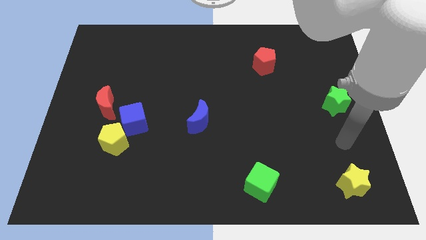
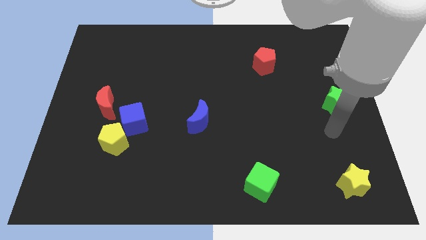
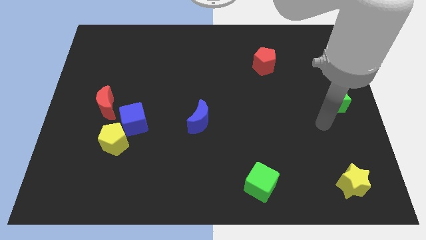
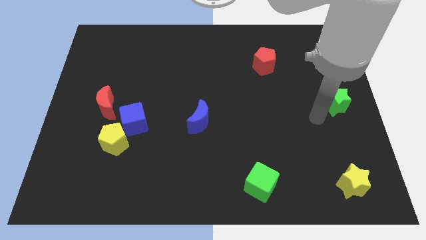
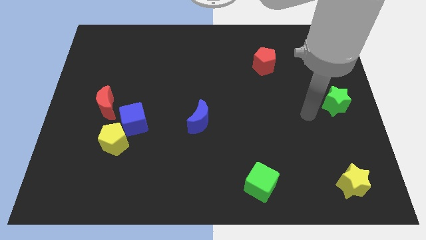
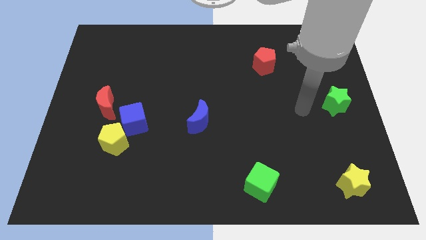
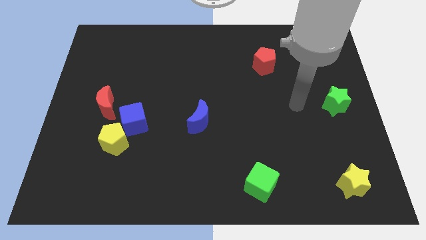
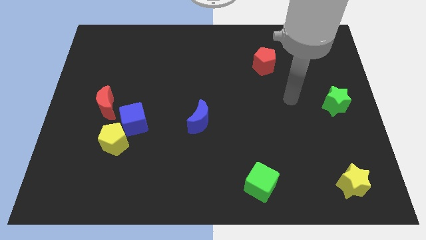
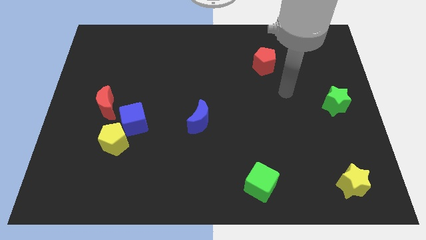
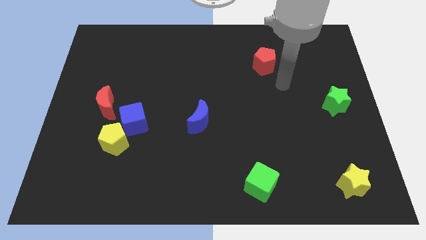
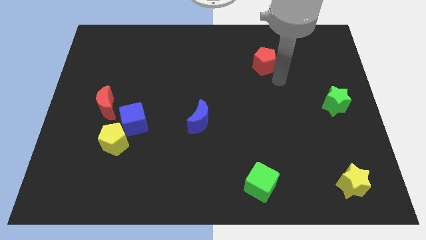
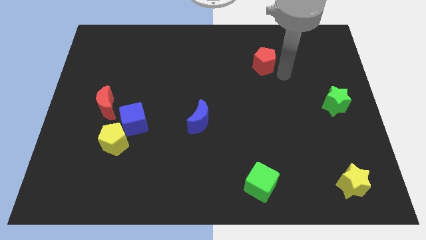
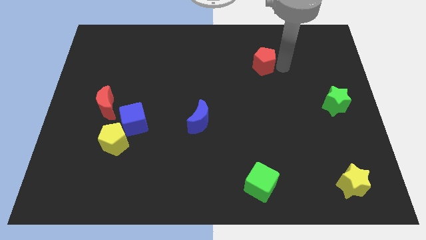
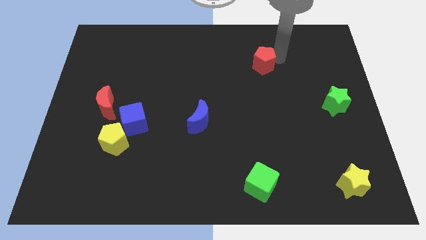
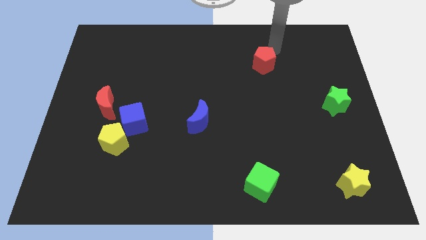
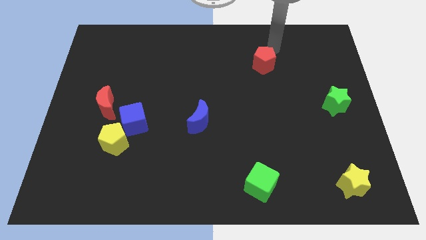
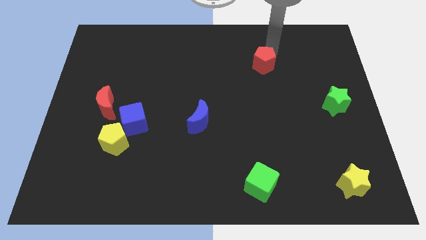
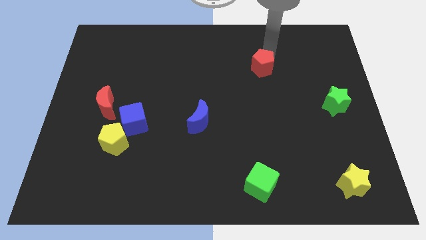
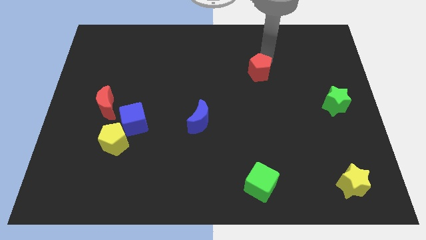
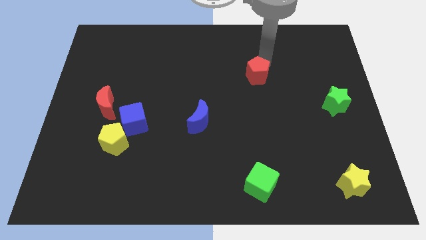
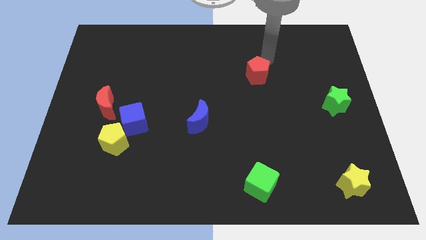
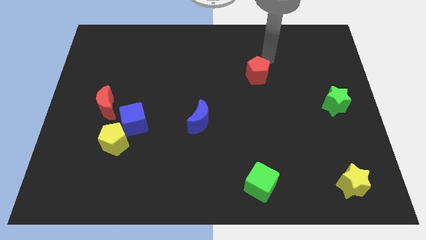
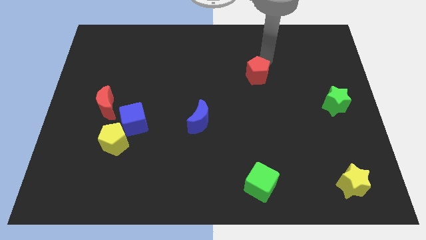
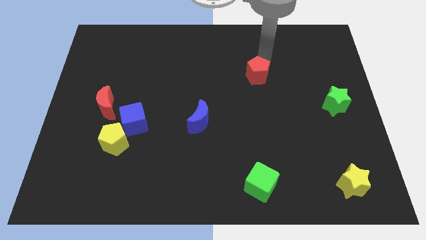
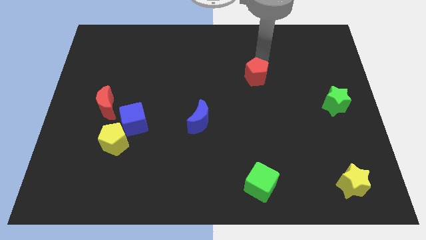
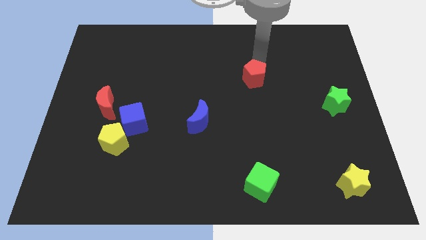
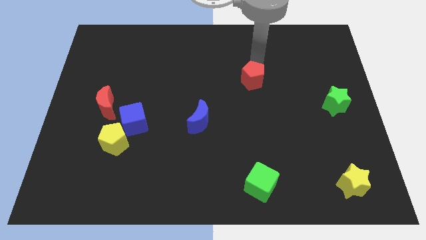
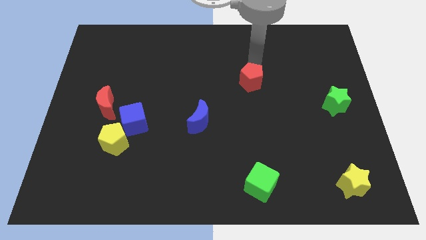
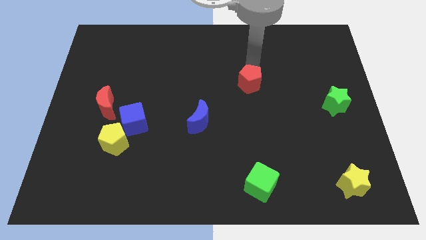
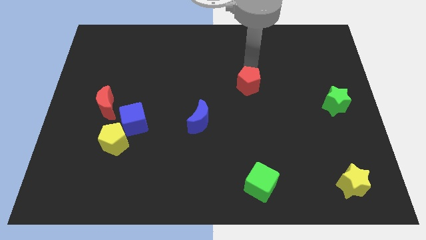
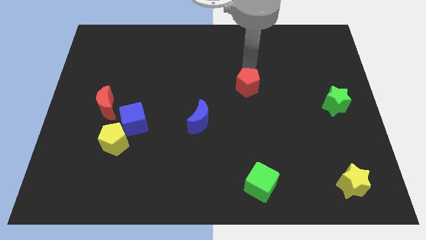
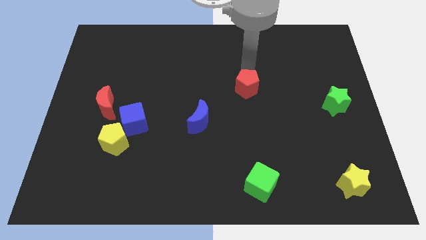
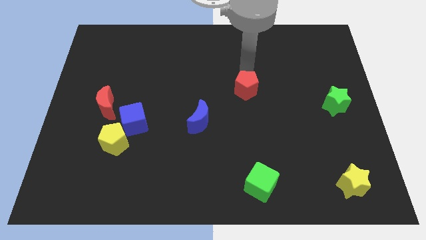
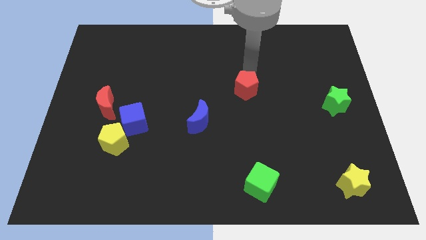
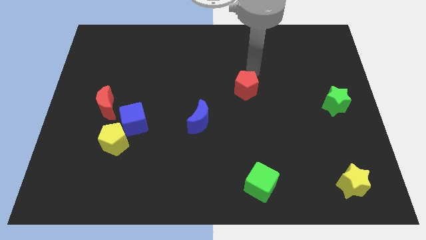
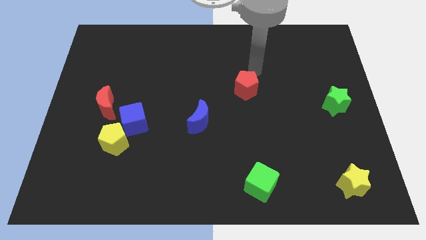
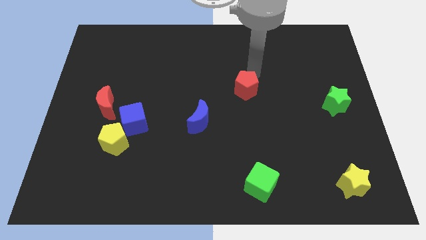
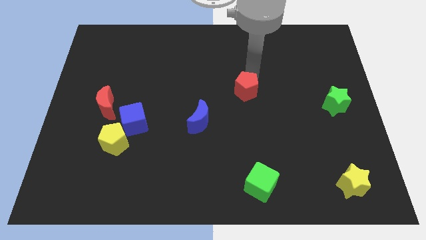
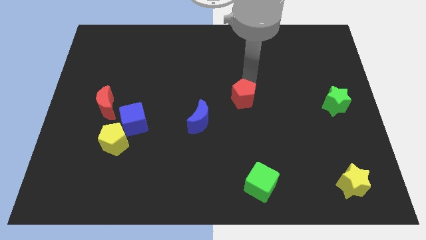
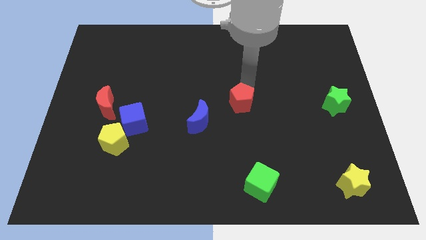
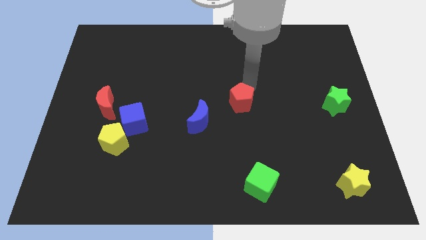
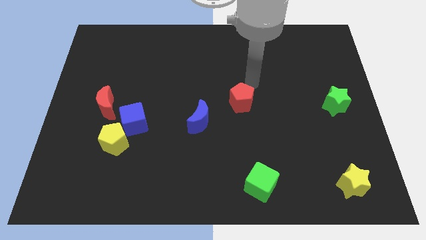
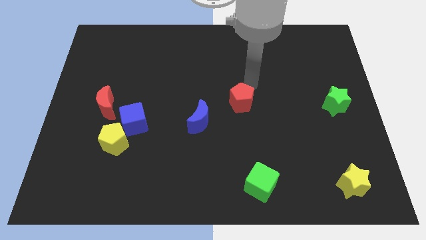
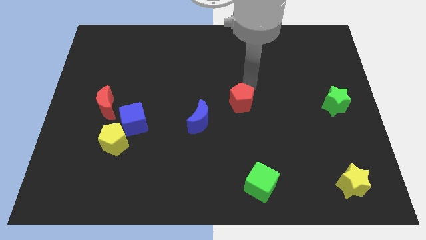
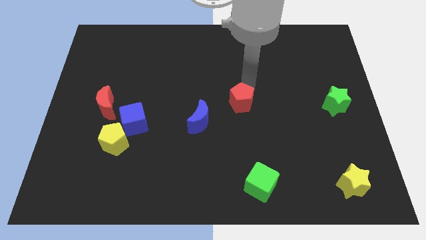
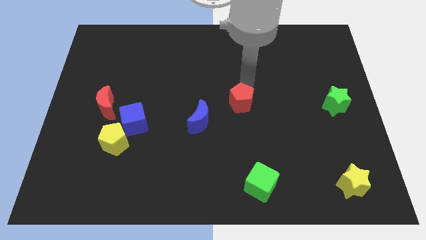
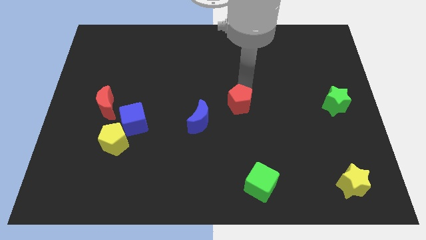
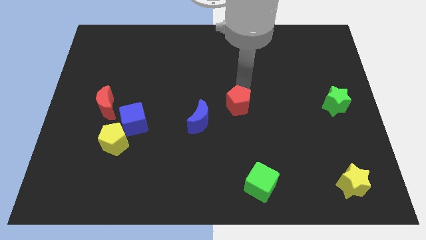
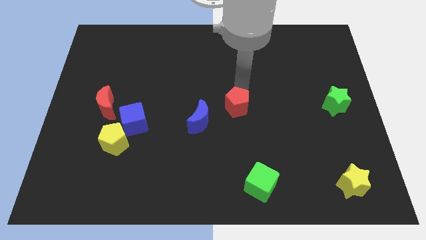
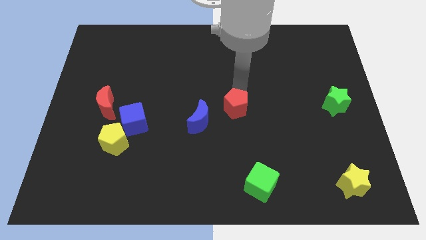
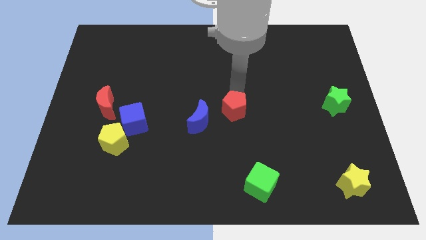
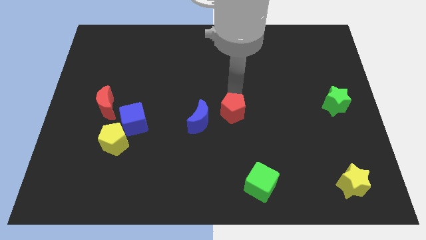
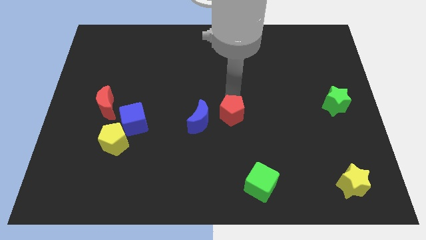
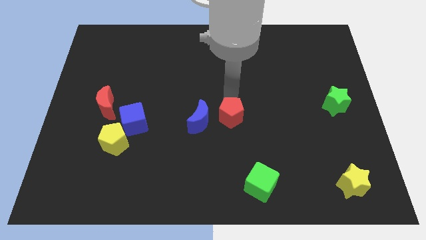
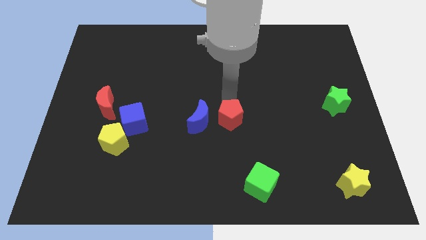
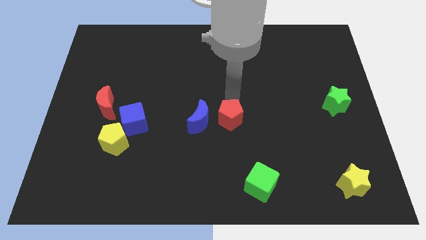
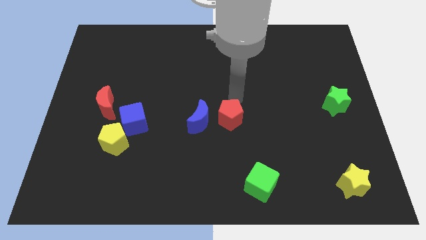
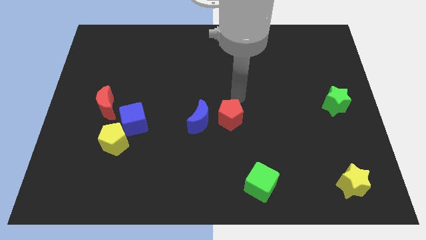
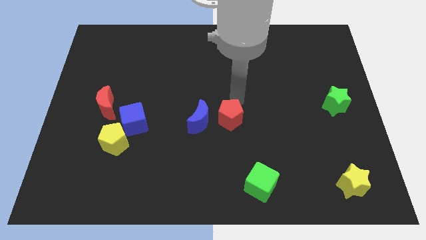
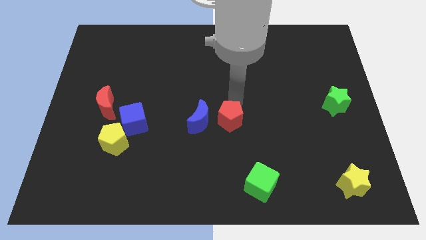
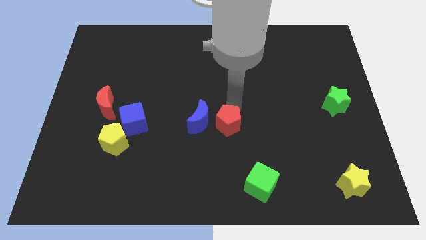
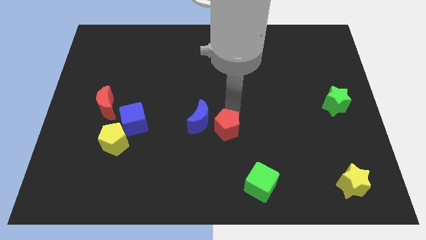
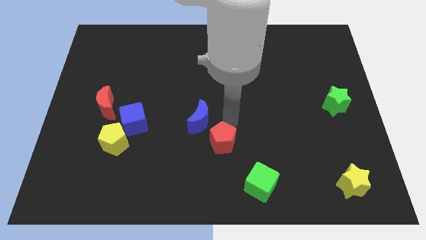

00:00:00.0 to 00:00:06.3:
put the red pentagon to the bottom of the blue moon

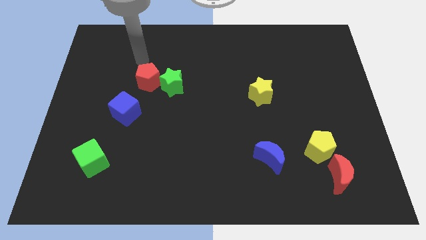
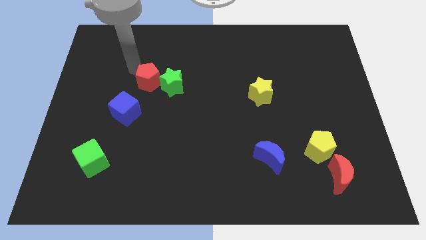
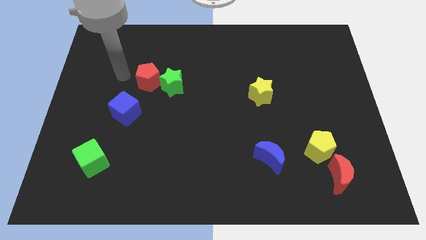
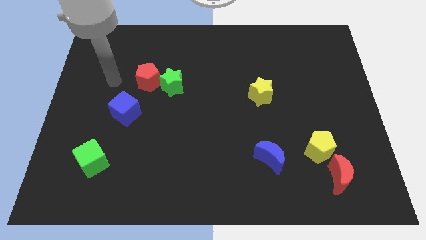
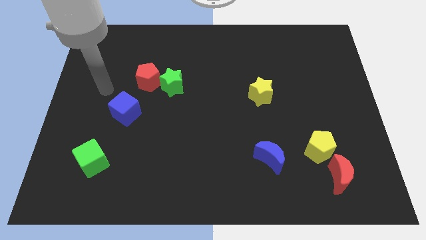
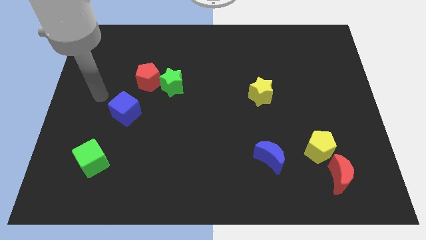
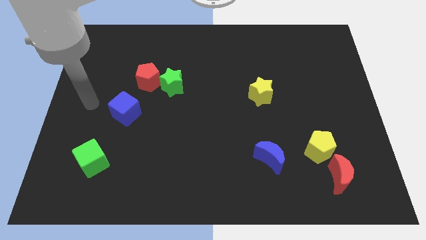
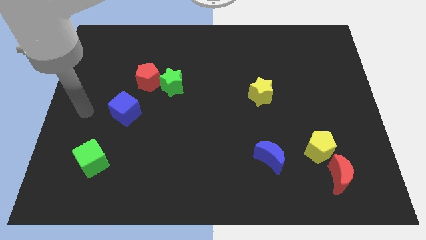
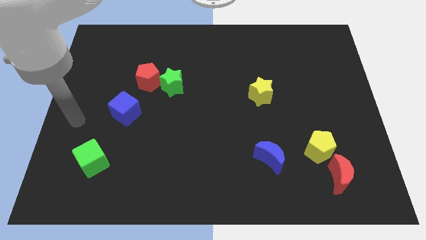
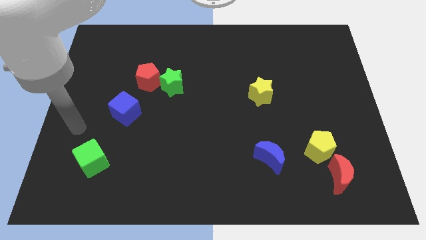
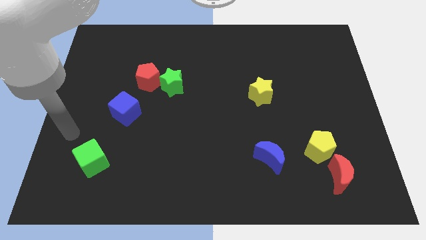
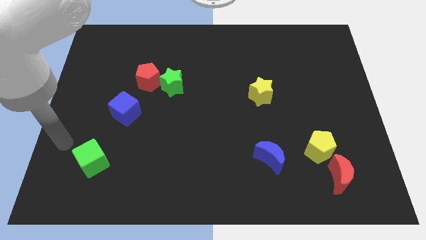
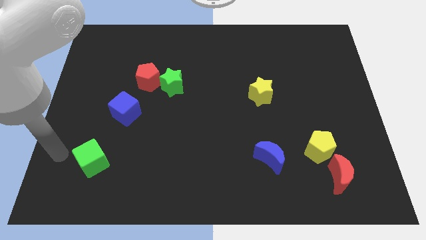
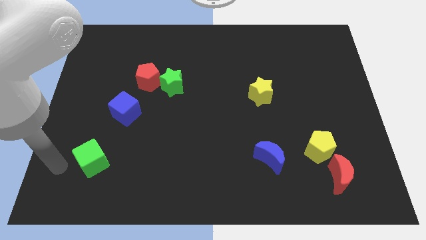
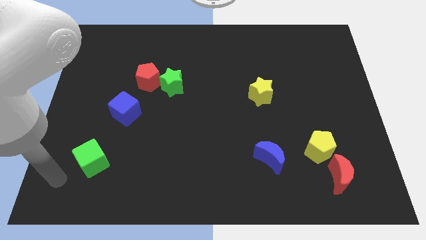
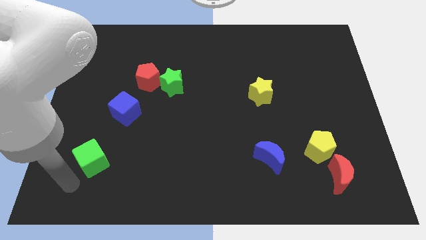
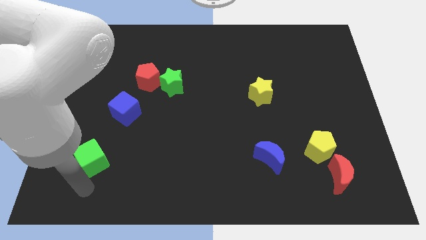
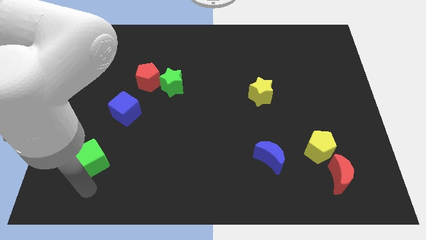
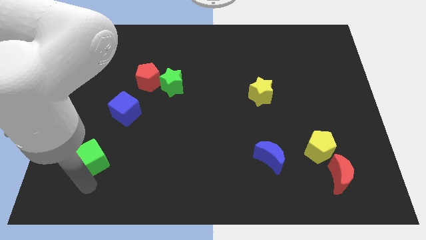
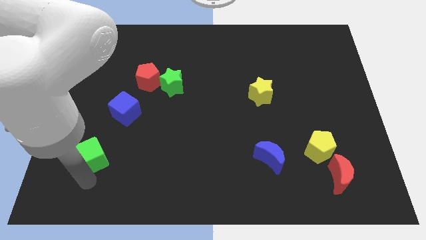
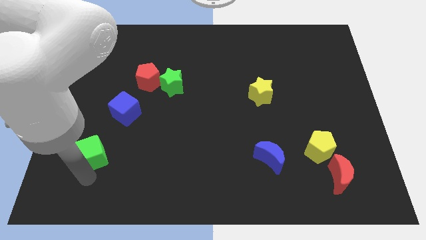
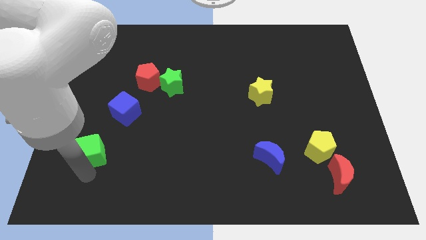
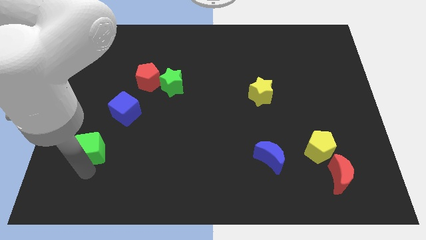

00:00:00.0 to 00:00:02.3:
push the green cube to the bottom left of the blue cube
